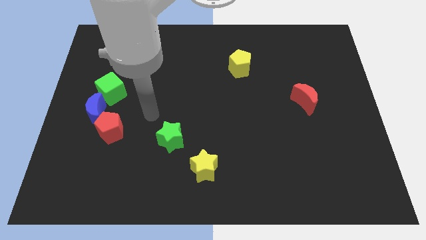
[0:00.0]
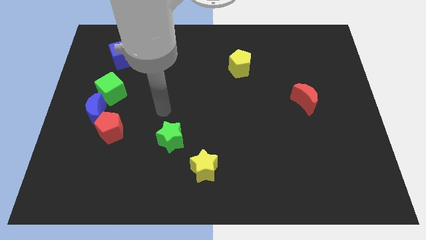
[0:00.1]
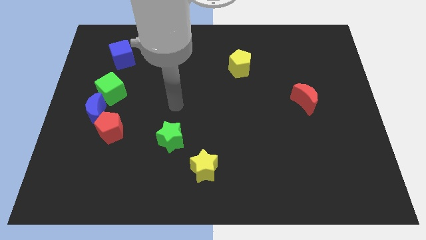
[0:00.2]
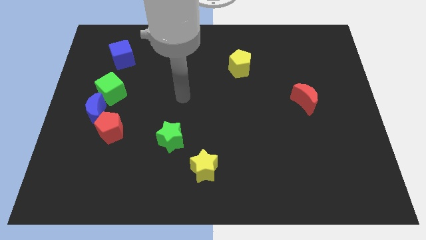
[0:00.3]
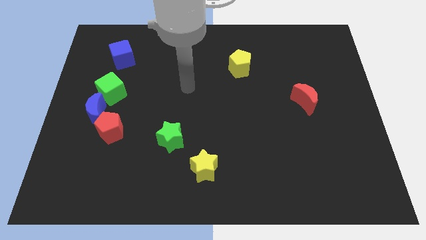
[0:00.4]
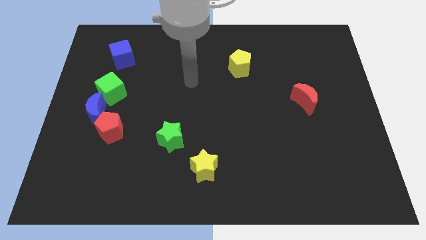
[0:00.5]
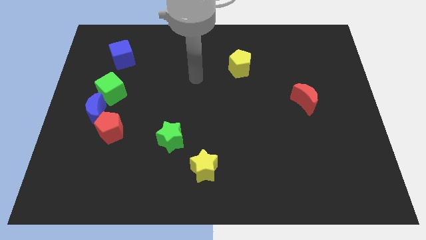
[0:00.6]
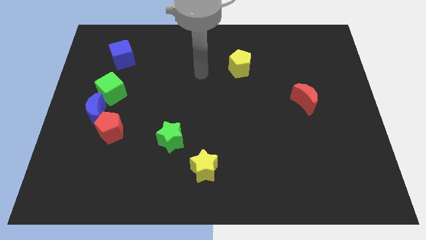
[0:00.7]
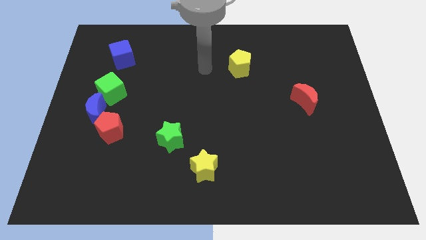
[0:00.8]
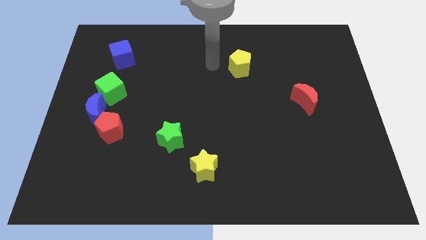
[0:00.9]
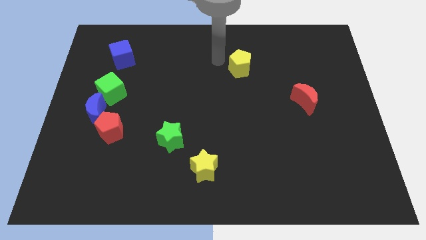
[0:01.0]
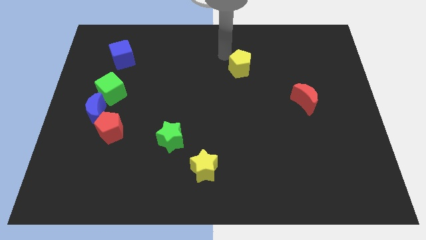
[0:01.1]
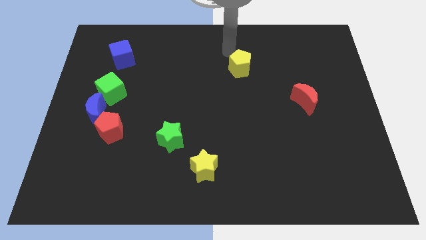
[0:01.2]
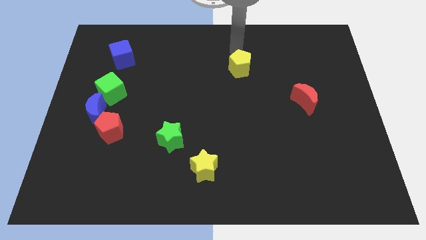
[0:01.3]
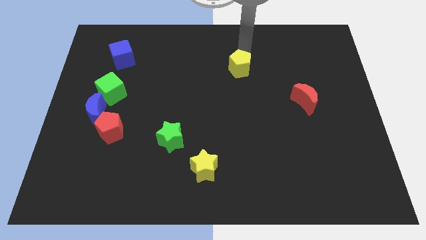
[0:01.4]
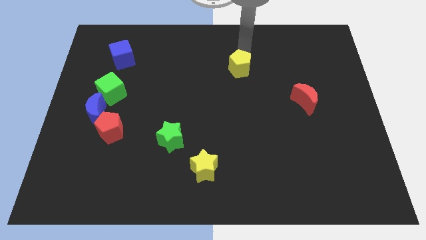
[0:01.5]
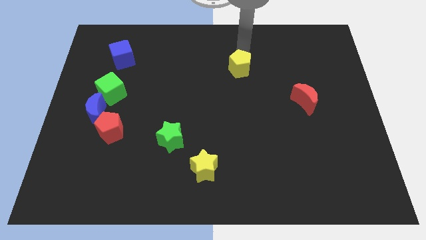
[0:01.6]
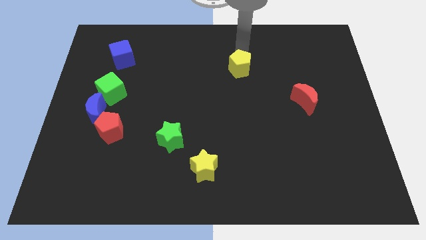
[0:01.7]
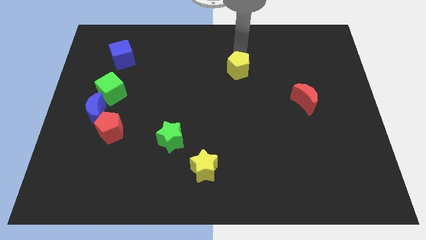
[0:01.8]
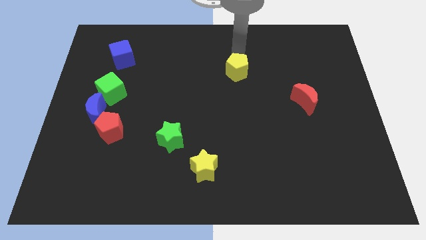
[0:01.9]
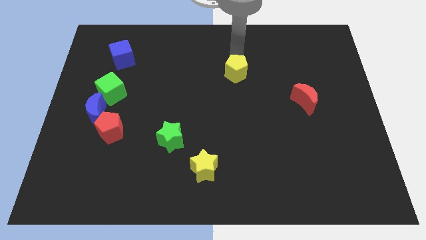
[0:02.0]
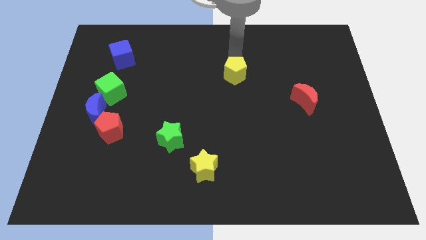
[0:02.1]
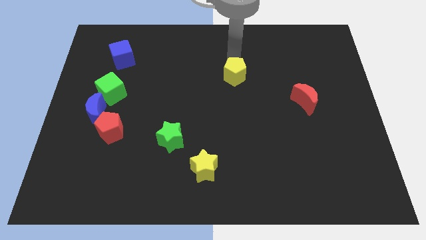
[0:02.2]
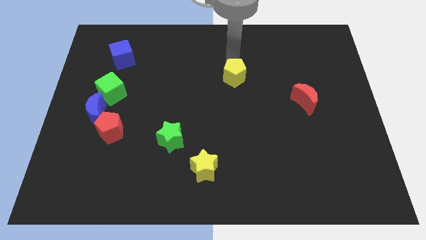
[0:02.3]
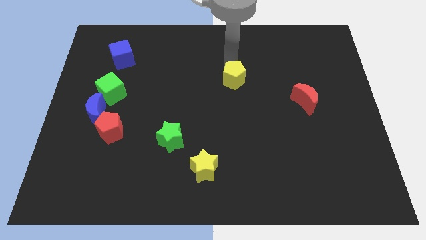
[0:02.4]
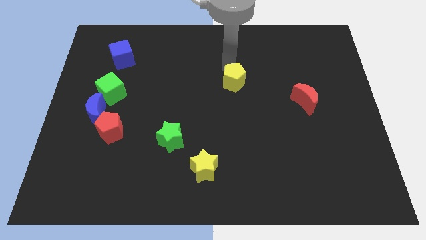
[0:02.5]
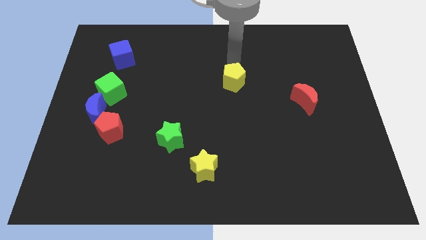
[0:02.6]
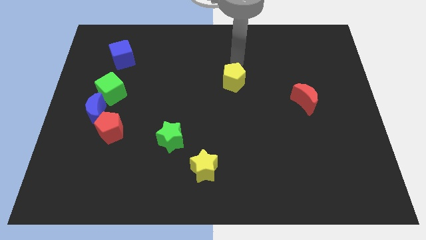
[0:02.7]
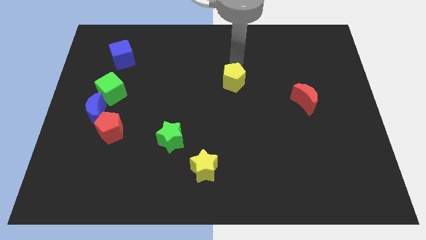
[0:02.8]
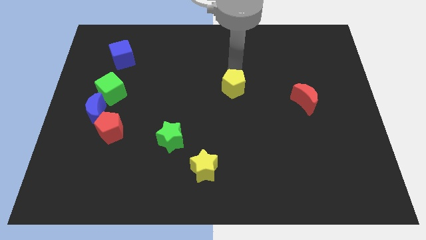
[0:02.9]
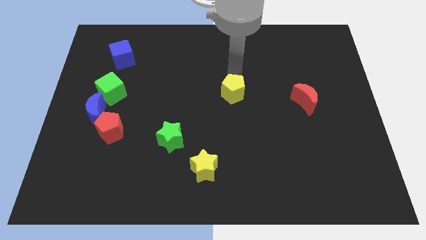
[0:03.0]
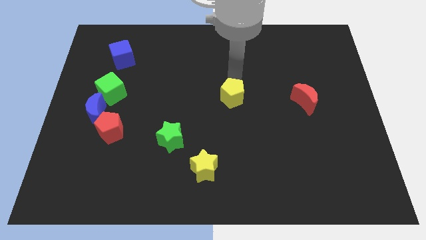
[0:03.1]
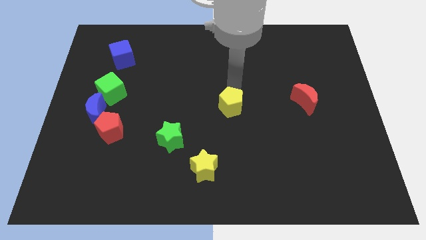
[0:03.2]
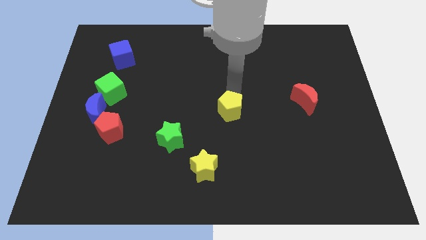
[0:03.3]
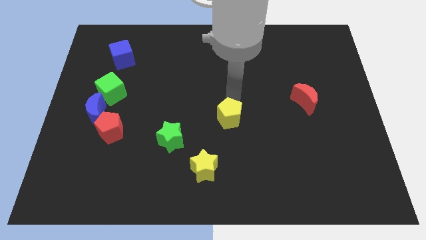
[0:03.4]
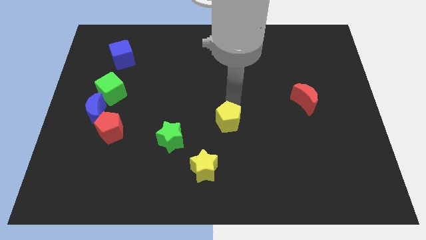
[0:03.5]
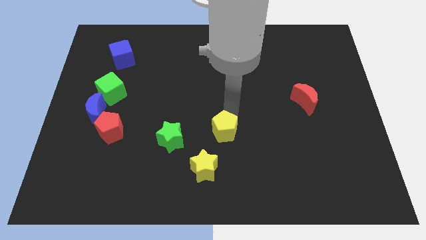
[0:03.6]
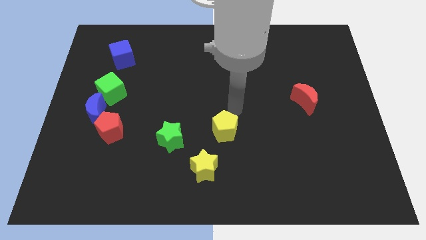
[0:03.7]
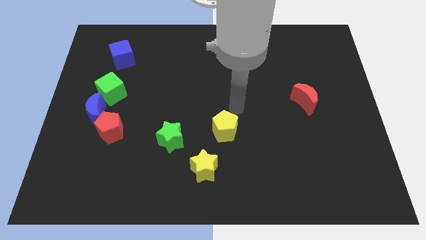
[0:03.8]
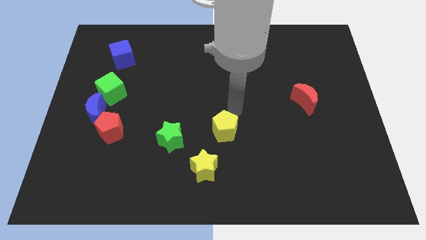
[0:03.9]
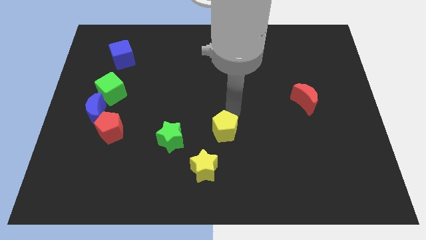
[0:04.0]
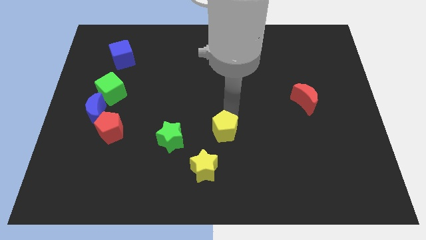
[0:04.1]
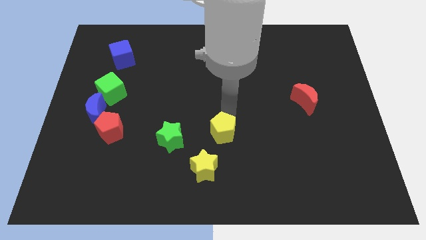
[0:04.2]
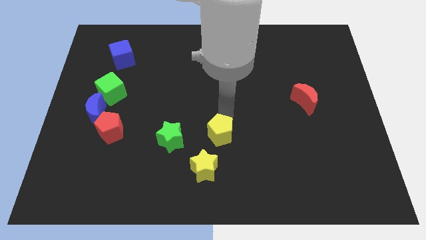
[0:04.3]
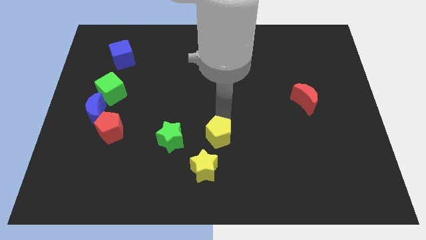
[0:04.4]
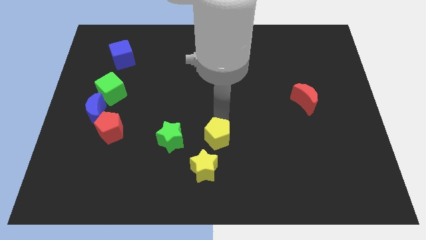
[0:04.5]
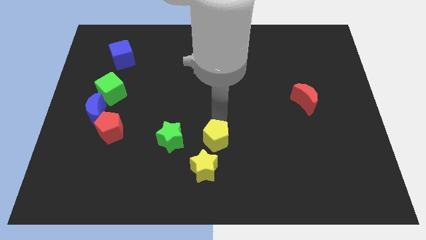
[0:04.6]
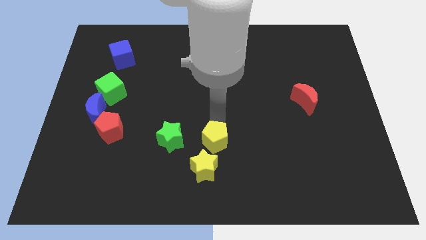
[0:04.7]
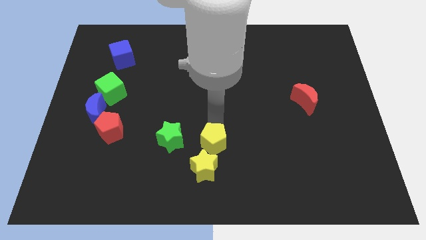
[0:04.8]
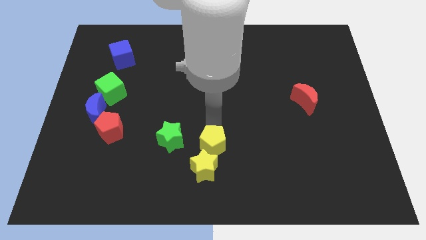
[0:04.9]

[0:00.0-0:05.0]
move the yellow pentagon to the yellow star

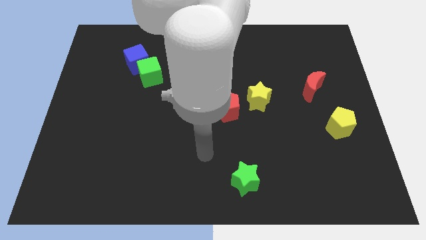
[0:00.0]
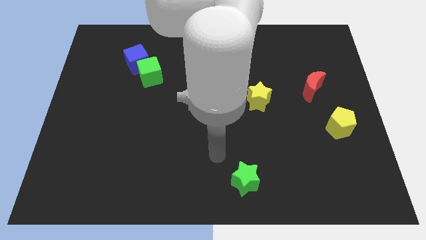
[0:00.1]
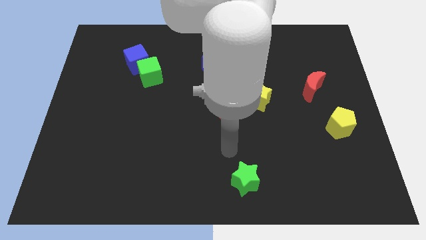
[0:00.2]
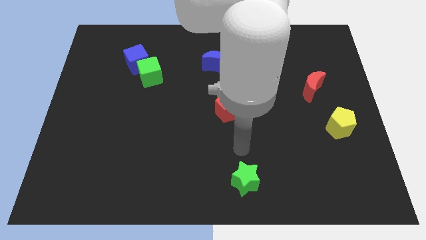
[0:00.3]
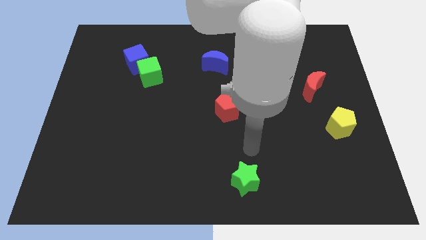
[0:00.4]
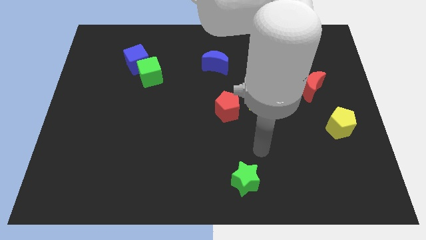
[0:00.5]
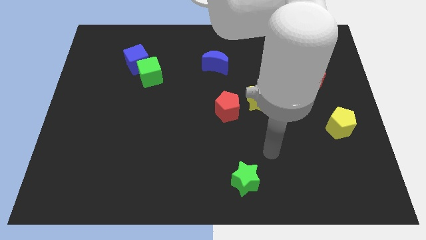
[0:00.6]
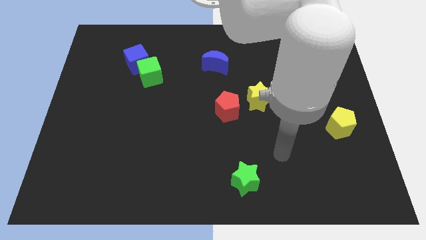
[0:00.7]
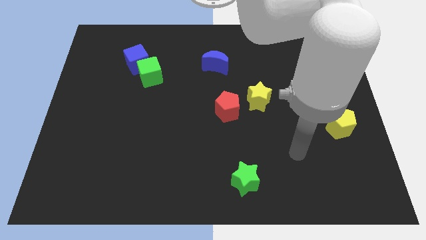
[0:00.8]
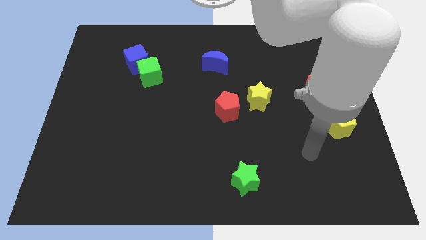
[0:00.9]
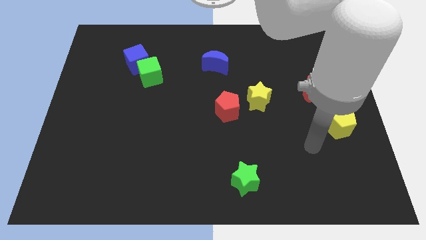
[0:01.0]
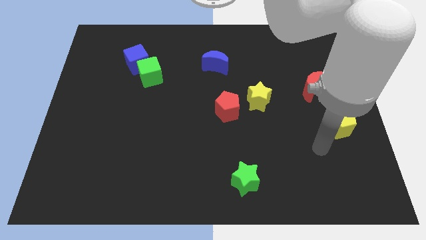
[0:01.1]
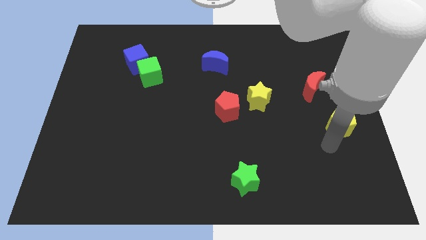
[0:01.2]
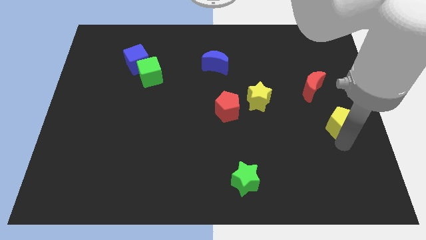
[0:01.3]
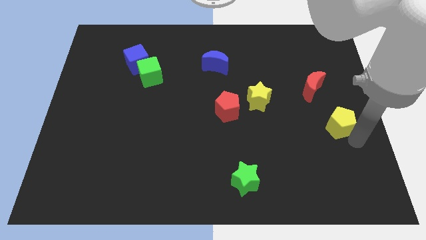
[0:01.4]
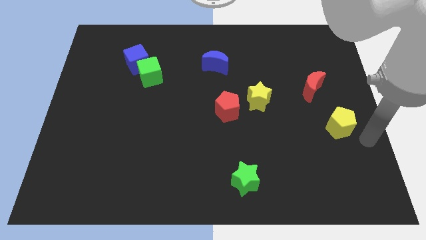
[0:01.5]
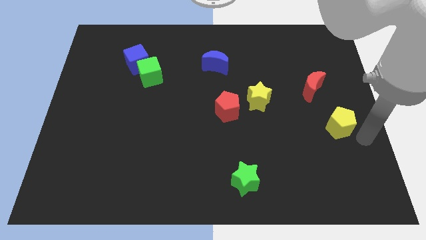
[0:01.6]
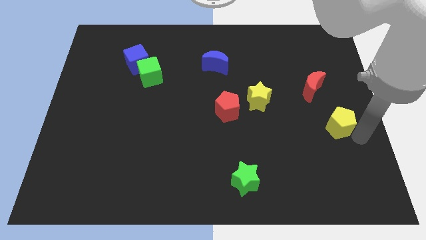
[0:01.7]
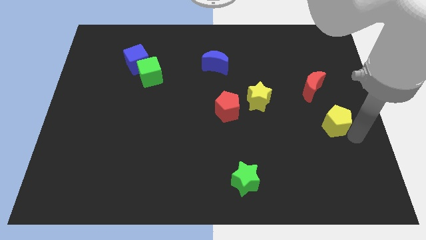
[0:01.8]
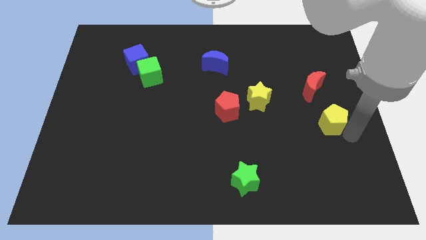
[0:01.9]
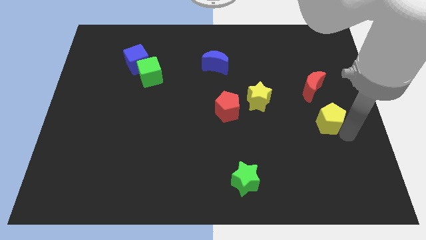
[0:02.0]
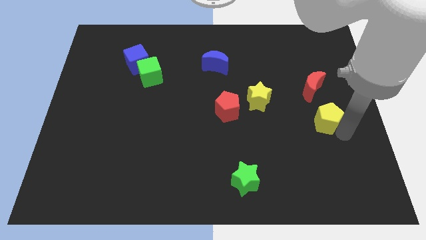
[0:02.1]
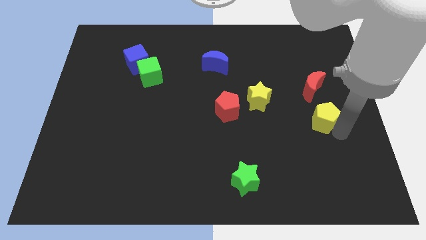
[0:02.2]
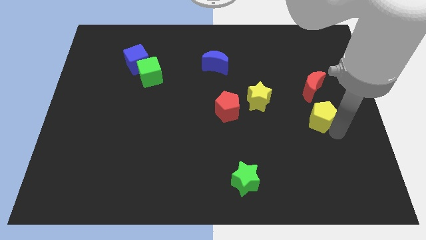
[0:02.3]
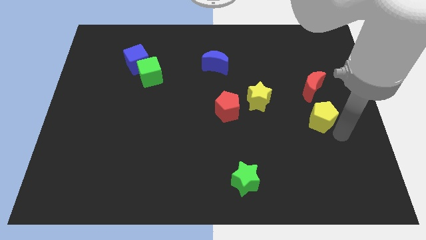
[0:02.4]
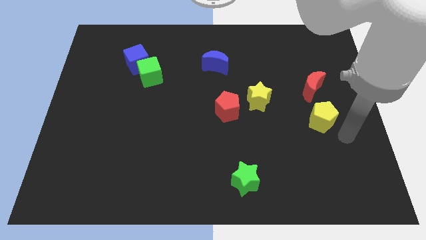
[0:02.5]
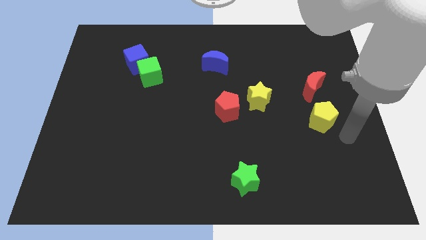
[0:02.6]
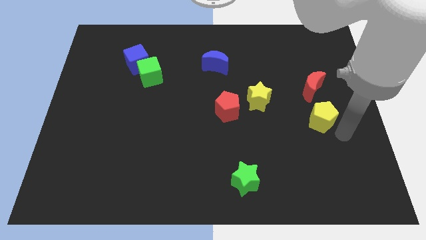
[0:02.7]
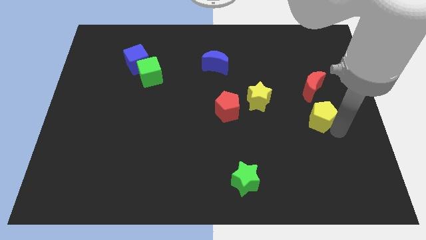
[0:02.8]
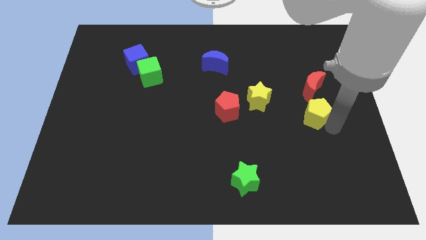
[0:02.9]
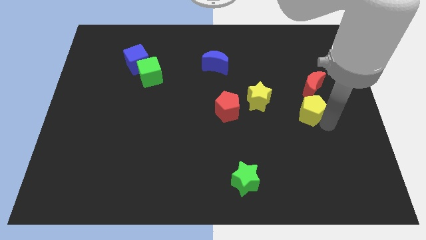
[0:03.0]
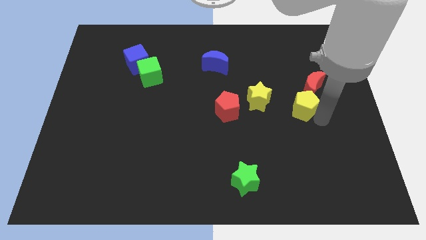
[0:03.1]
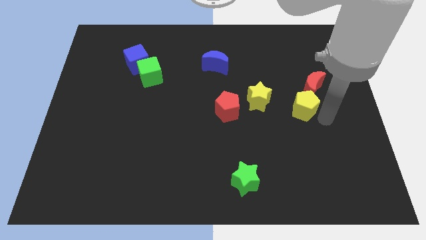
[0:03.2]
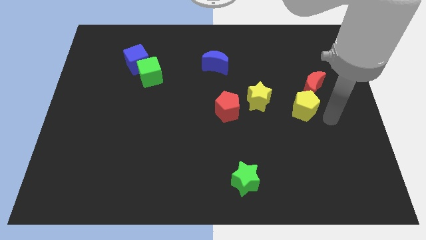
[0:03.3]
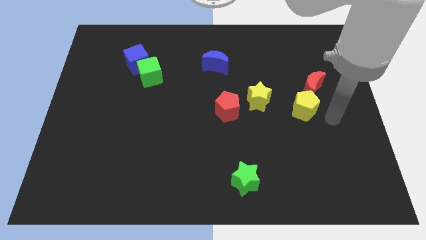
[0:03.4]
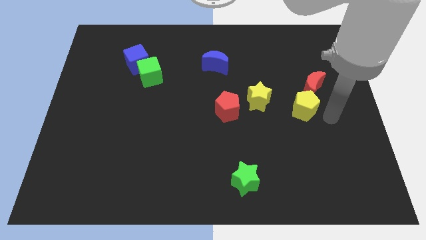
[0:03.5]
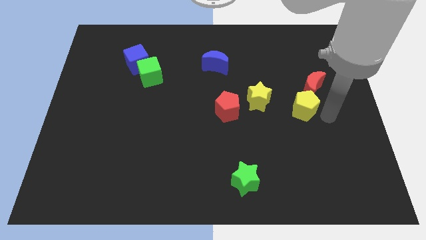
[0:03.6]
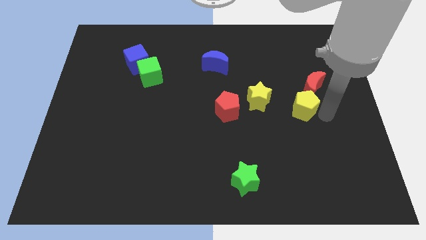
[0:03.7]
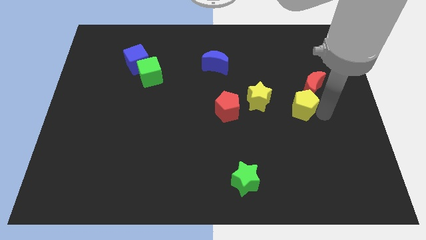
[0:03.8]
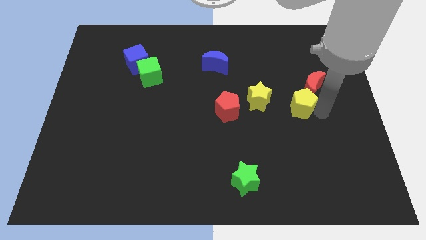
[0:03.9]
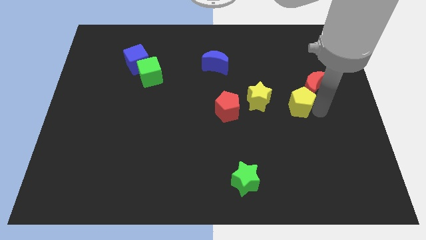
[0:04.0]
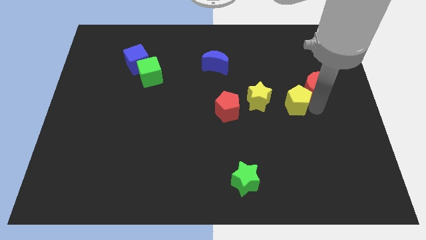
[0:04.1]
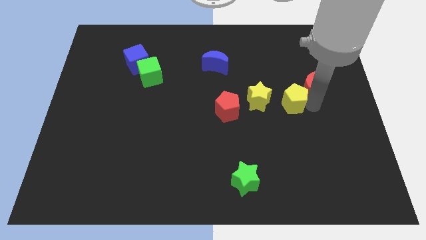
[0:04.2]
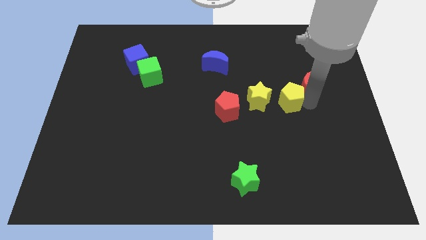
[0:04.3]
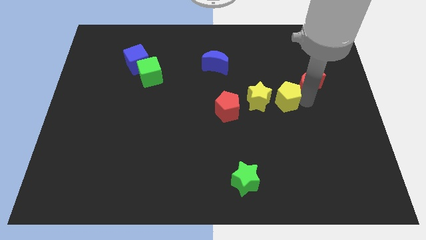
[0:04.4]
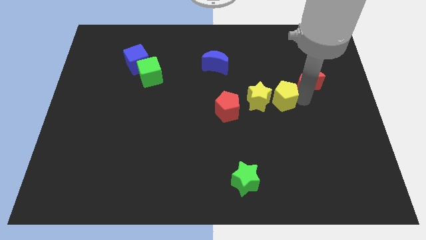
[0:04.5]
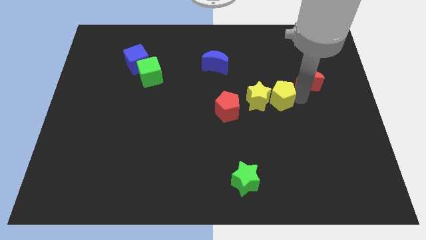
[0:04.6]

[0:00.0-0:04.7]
push the yellow pentagon towards the yellow star
